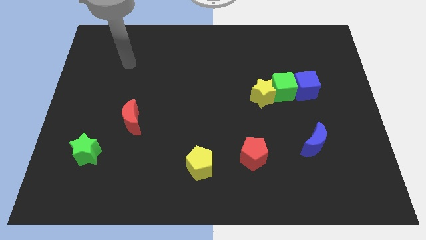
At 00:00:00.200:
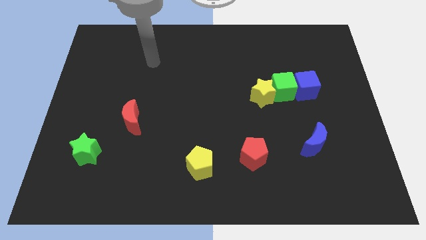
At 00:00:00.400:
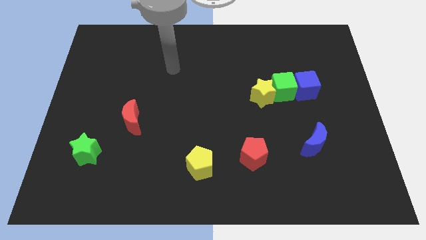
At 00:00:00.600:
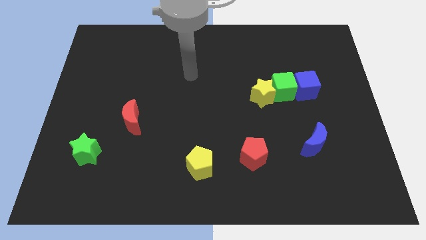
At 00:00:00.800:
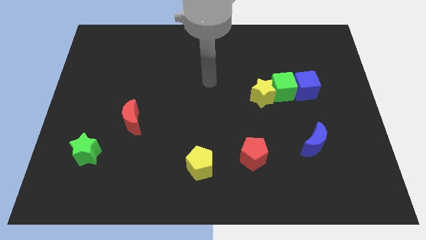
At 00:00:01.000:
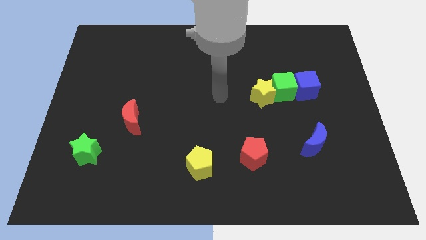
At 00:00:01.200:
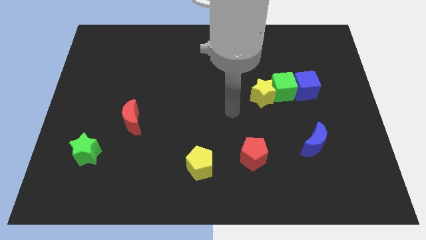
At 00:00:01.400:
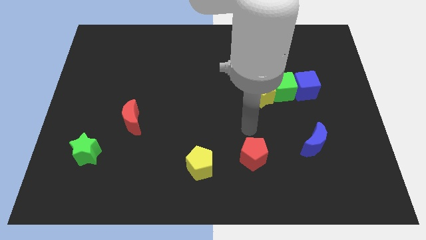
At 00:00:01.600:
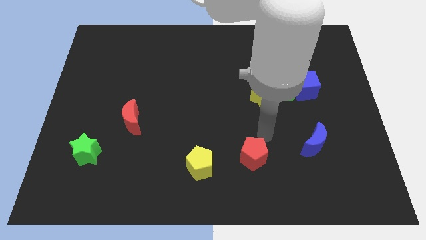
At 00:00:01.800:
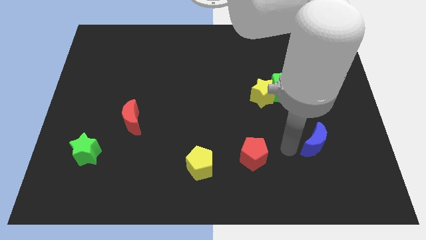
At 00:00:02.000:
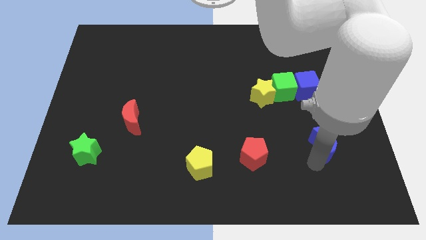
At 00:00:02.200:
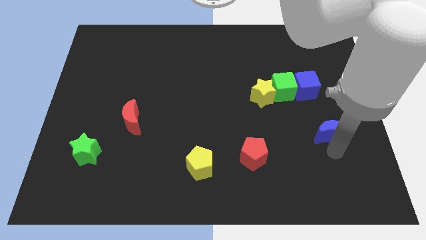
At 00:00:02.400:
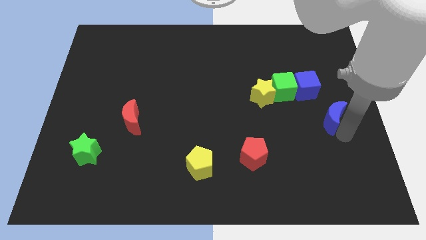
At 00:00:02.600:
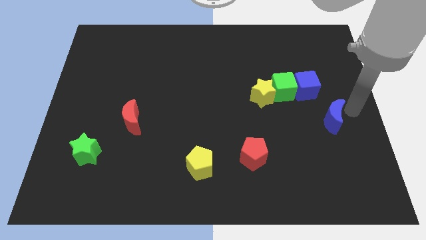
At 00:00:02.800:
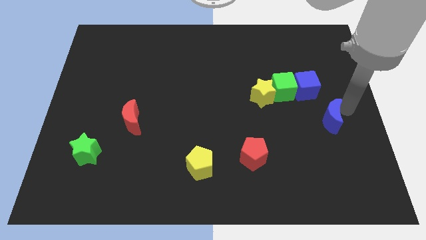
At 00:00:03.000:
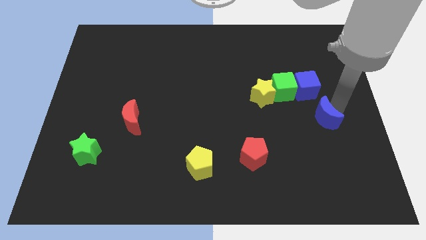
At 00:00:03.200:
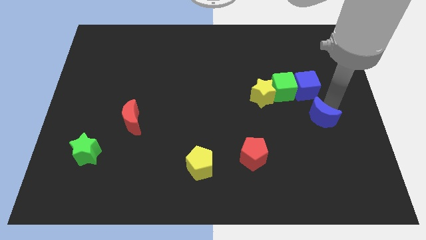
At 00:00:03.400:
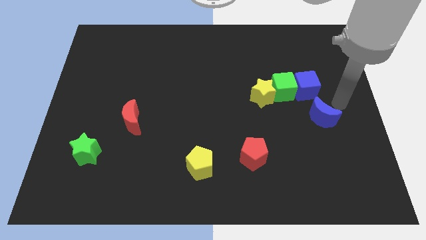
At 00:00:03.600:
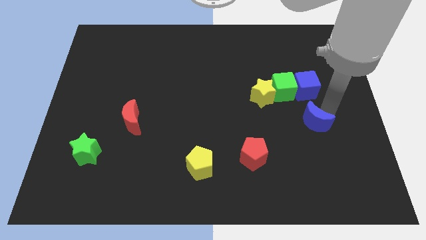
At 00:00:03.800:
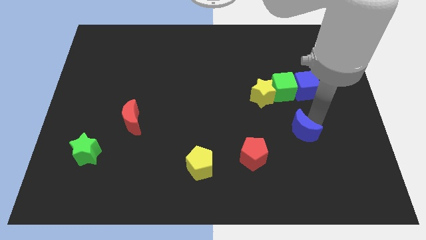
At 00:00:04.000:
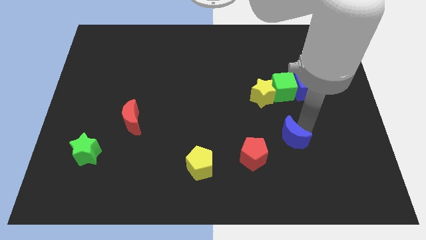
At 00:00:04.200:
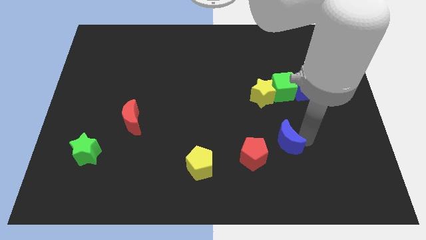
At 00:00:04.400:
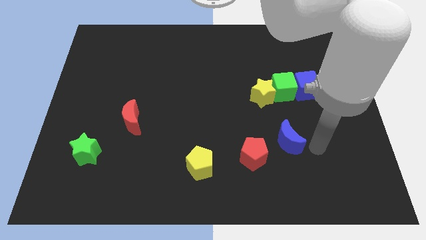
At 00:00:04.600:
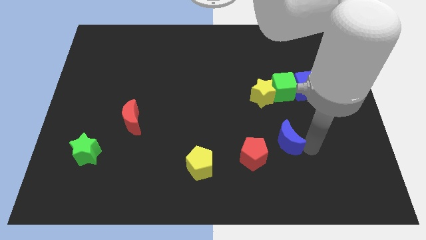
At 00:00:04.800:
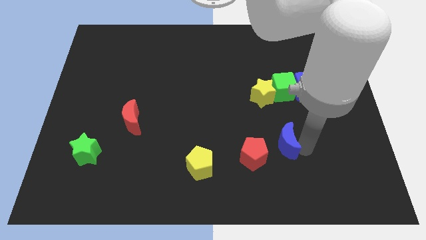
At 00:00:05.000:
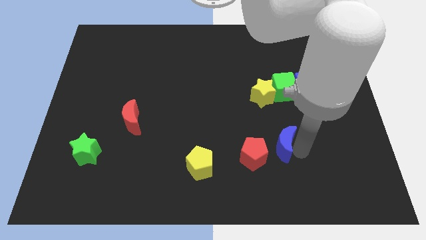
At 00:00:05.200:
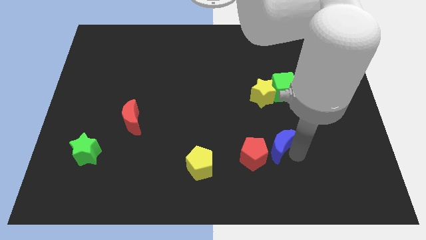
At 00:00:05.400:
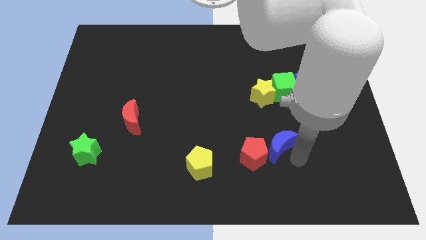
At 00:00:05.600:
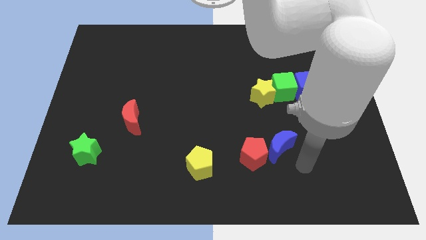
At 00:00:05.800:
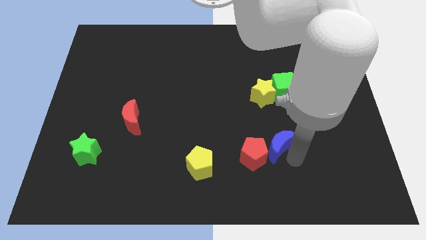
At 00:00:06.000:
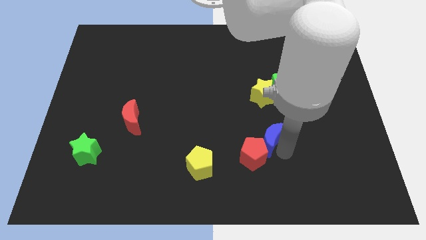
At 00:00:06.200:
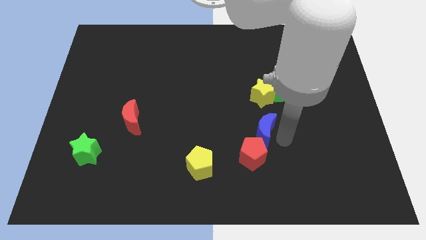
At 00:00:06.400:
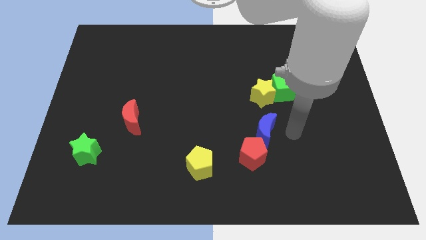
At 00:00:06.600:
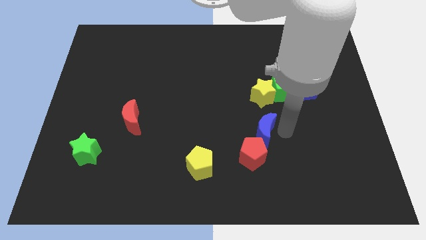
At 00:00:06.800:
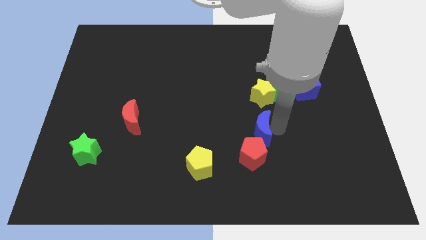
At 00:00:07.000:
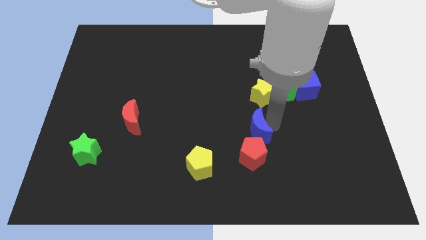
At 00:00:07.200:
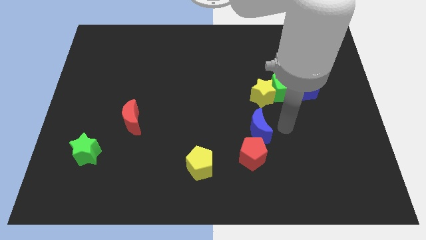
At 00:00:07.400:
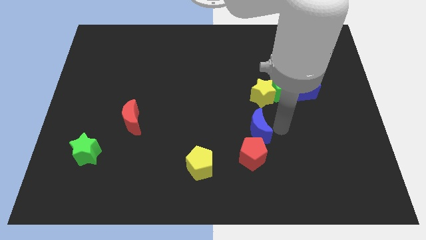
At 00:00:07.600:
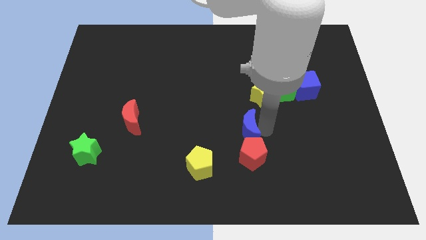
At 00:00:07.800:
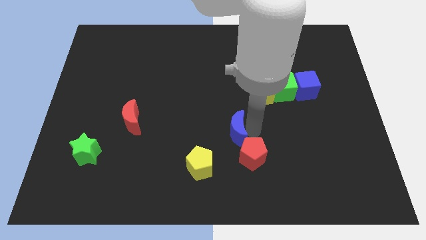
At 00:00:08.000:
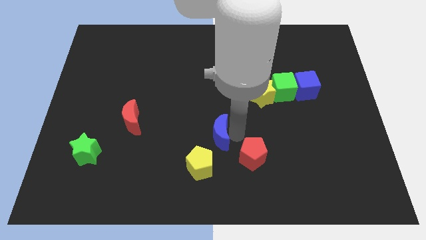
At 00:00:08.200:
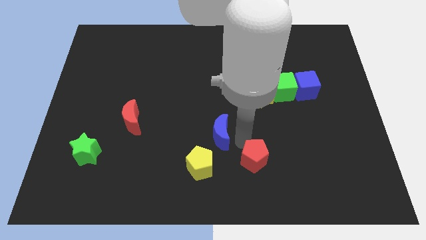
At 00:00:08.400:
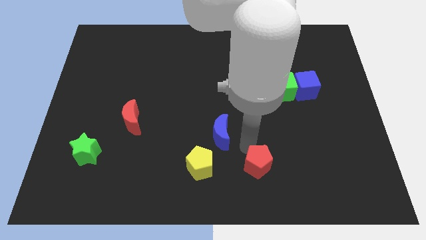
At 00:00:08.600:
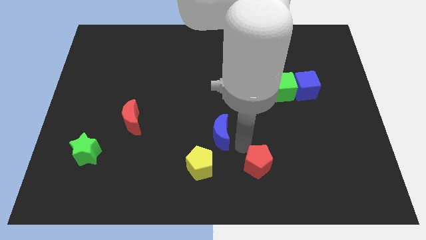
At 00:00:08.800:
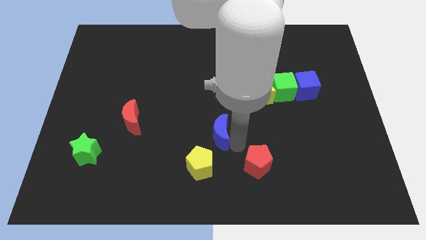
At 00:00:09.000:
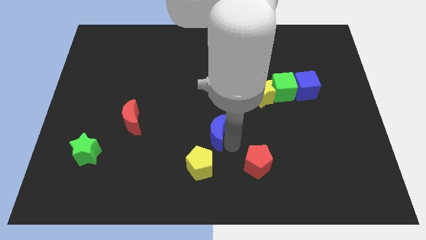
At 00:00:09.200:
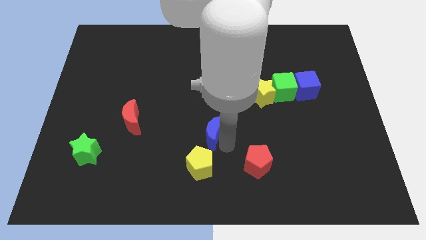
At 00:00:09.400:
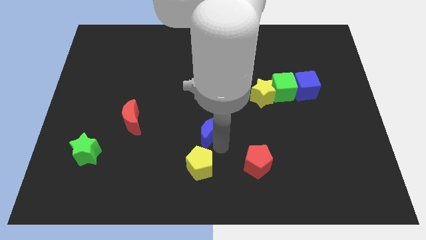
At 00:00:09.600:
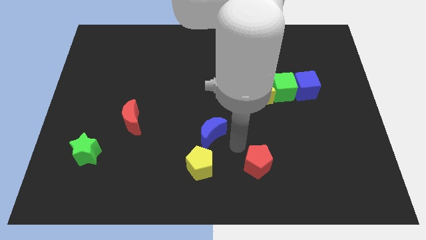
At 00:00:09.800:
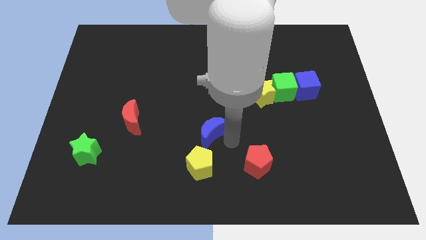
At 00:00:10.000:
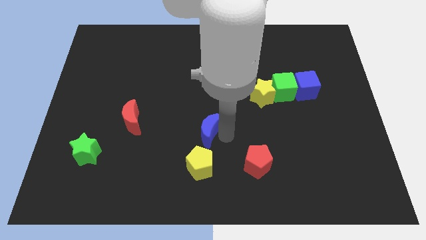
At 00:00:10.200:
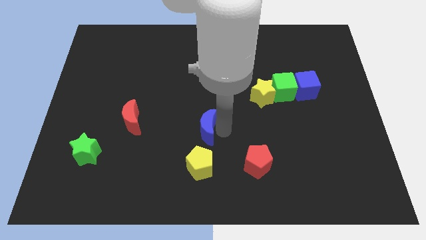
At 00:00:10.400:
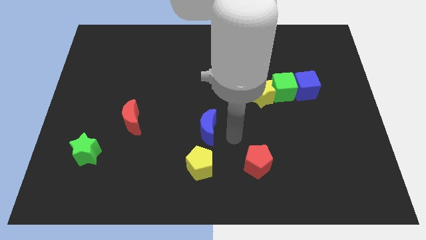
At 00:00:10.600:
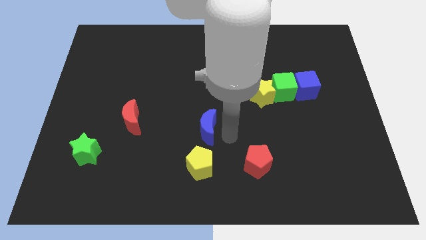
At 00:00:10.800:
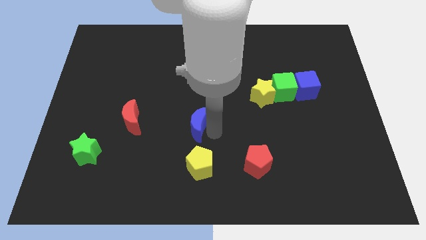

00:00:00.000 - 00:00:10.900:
push the blue moon to the right of the red moon

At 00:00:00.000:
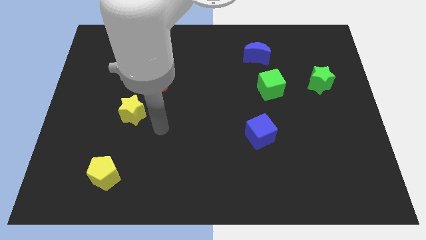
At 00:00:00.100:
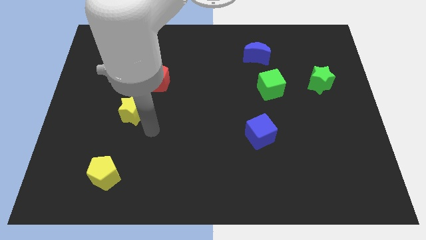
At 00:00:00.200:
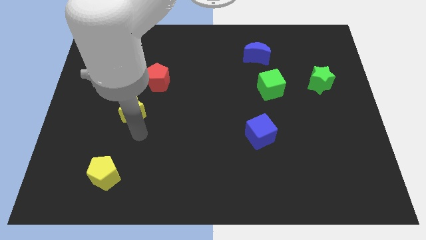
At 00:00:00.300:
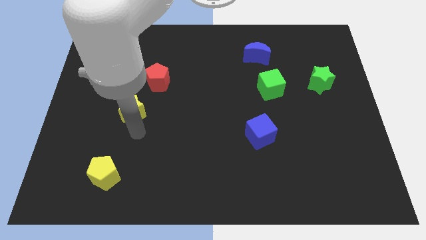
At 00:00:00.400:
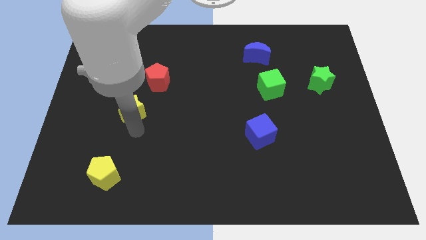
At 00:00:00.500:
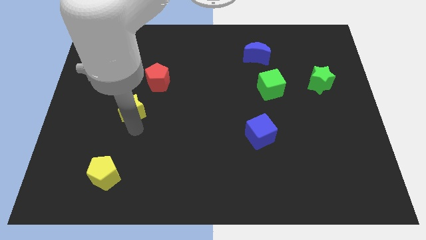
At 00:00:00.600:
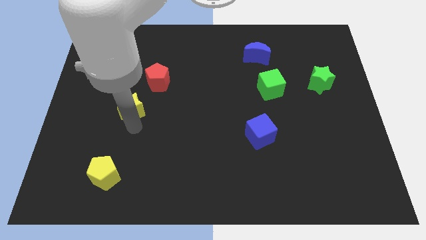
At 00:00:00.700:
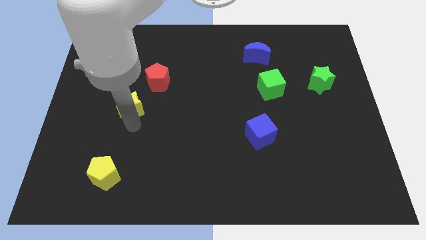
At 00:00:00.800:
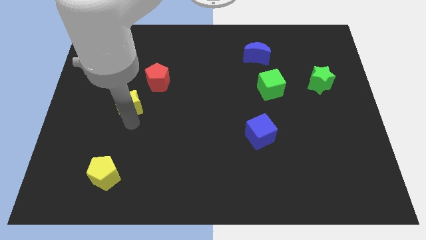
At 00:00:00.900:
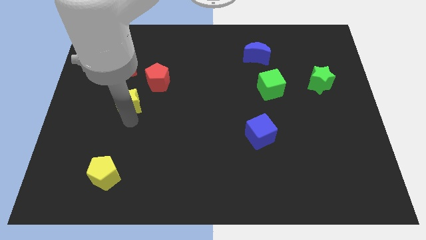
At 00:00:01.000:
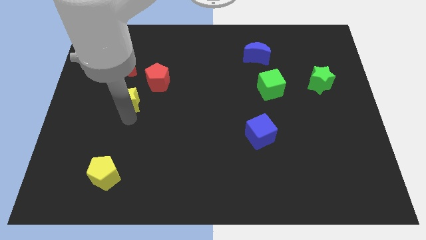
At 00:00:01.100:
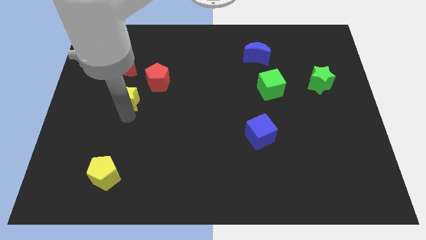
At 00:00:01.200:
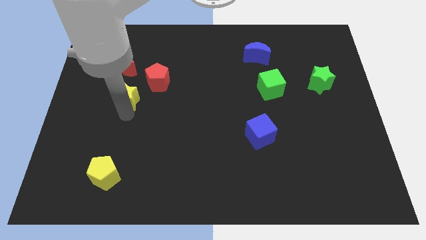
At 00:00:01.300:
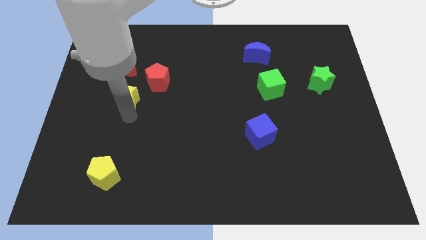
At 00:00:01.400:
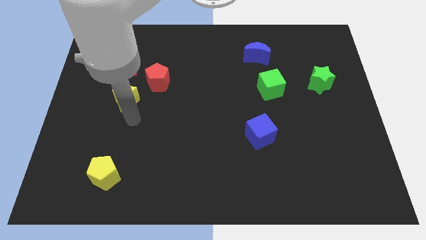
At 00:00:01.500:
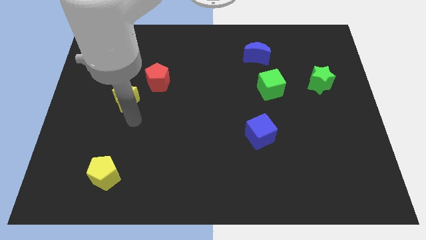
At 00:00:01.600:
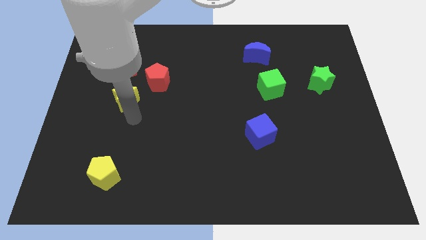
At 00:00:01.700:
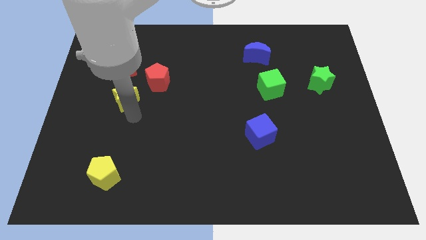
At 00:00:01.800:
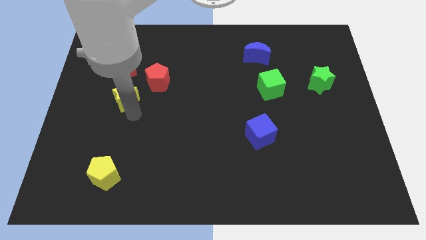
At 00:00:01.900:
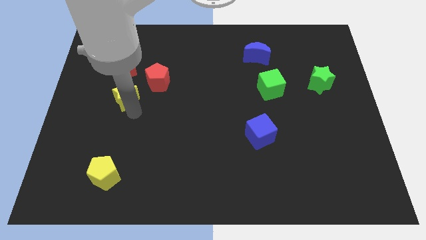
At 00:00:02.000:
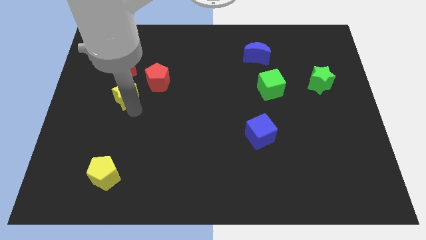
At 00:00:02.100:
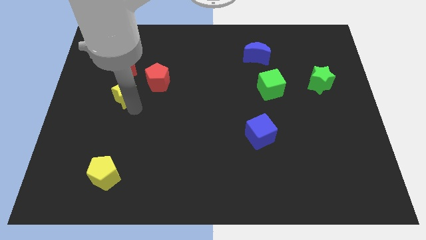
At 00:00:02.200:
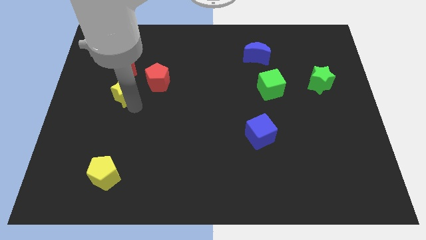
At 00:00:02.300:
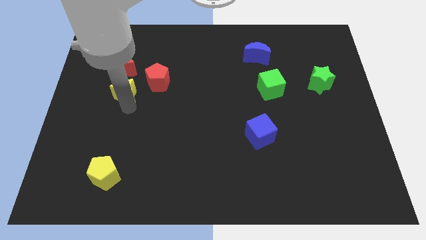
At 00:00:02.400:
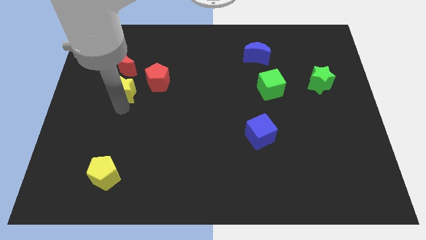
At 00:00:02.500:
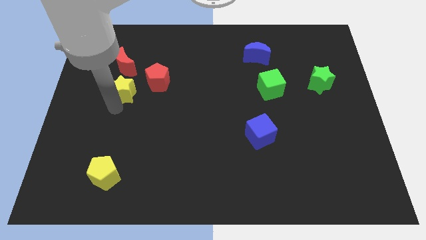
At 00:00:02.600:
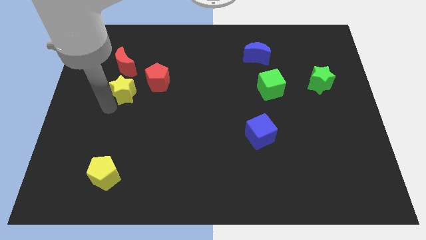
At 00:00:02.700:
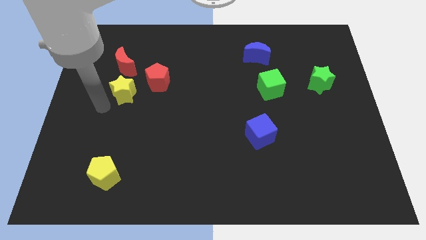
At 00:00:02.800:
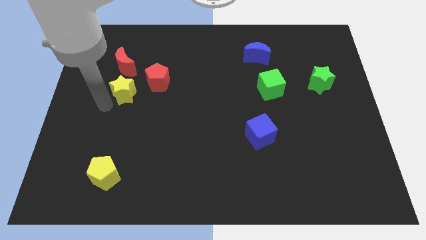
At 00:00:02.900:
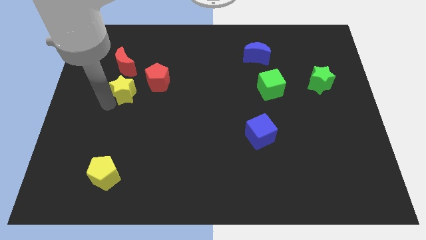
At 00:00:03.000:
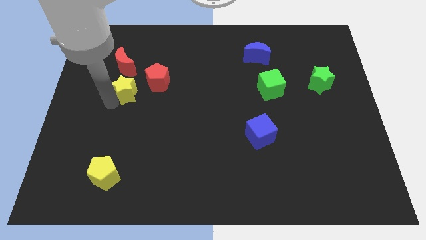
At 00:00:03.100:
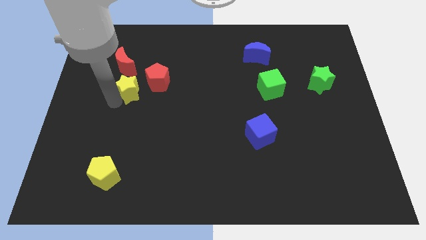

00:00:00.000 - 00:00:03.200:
slide the yellow star to the bottom right side of the red moon
